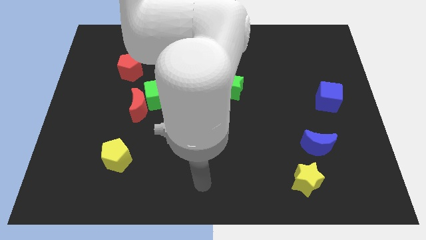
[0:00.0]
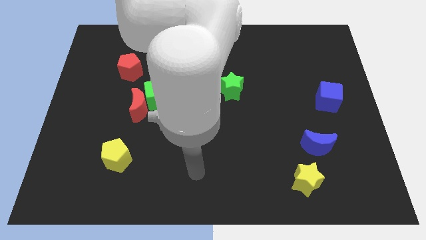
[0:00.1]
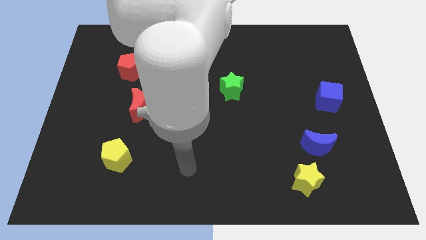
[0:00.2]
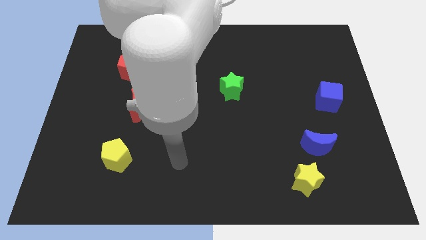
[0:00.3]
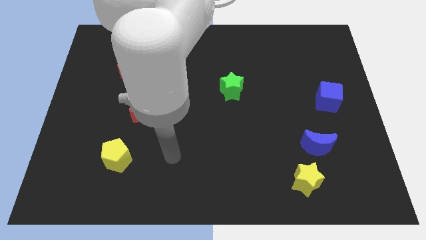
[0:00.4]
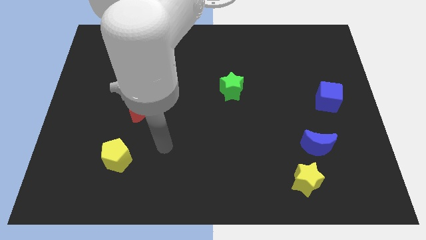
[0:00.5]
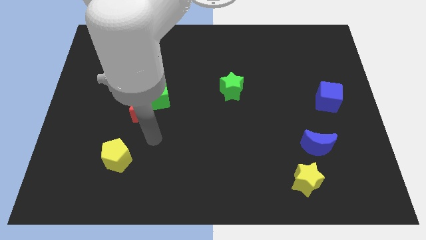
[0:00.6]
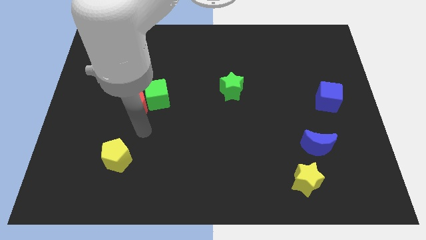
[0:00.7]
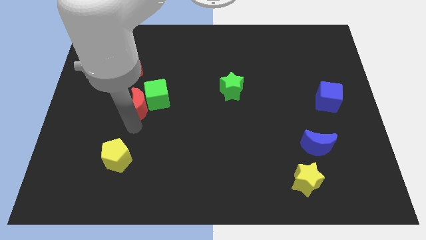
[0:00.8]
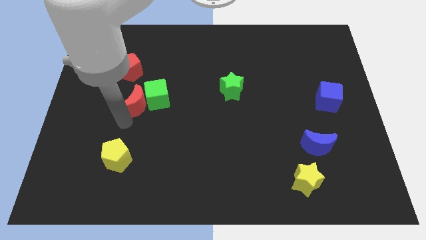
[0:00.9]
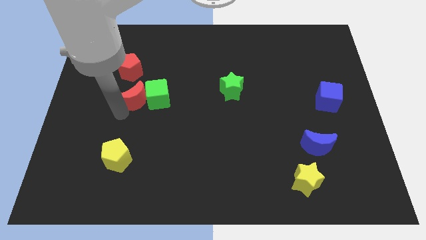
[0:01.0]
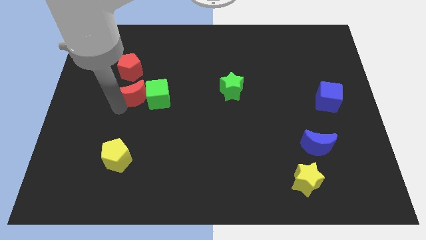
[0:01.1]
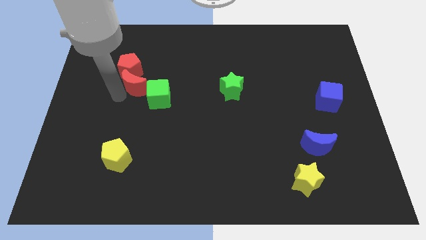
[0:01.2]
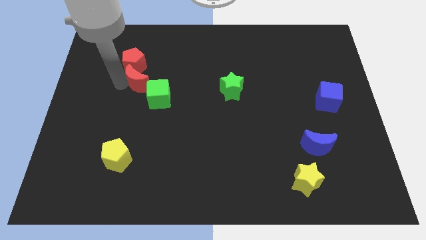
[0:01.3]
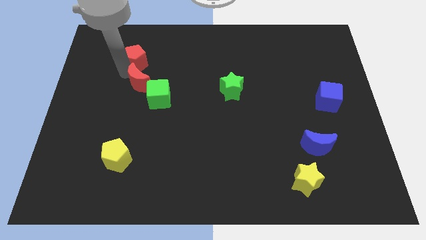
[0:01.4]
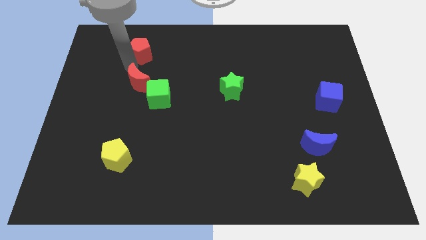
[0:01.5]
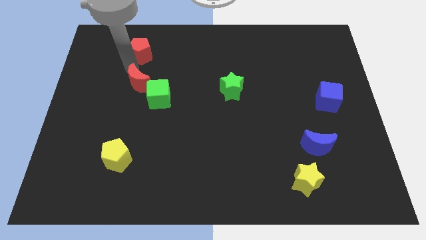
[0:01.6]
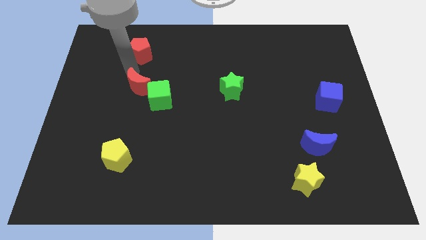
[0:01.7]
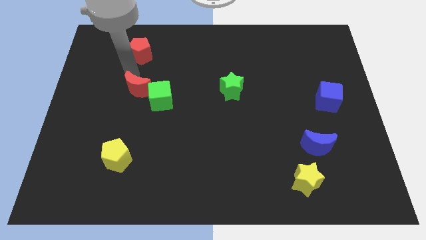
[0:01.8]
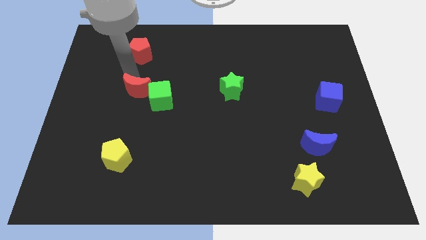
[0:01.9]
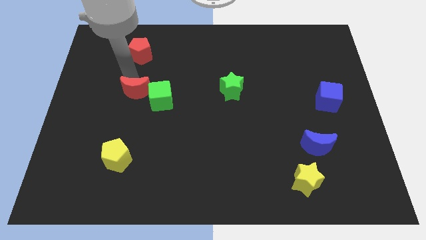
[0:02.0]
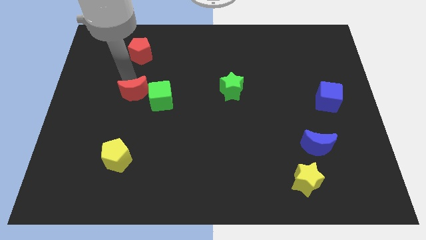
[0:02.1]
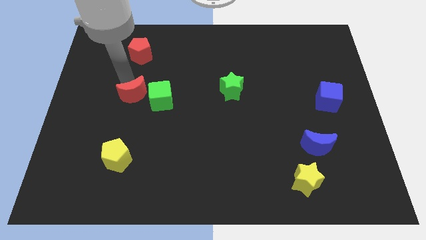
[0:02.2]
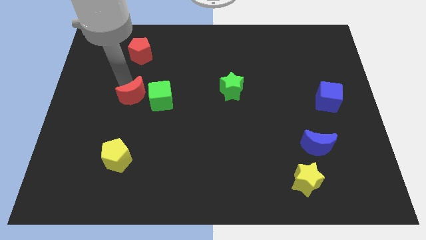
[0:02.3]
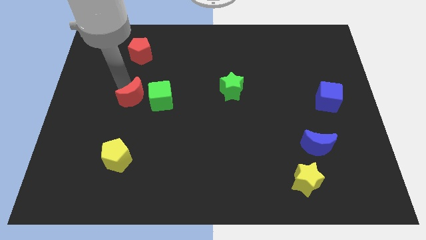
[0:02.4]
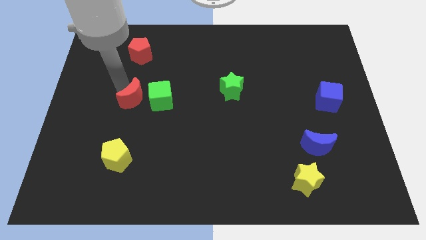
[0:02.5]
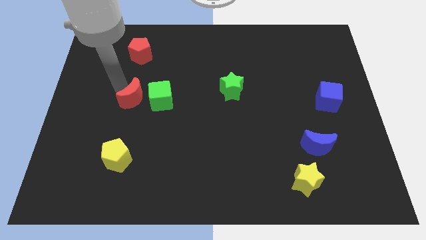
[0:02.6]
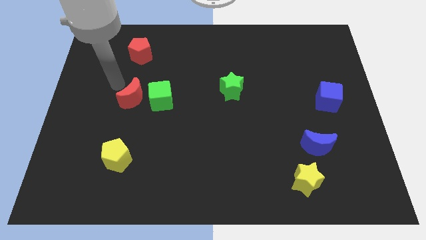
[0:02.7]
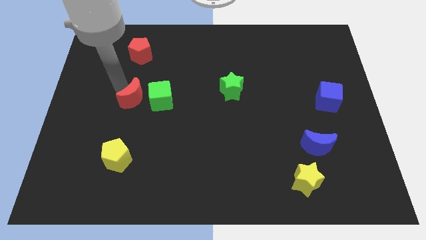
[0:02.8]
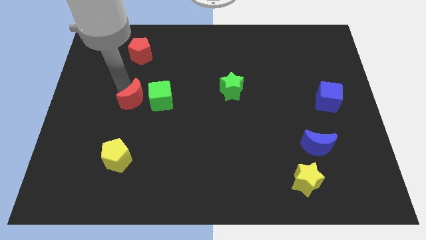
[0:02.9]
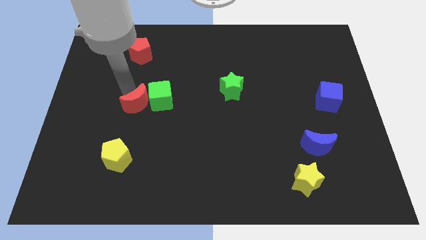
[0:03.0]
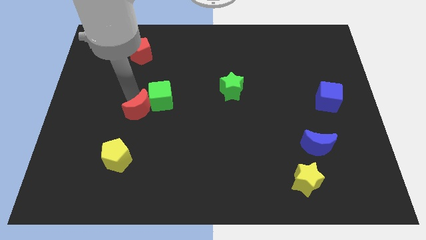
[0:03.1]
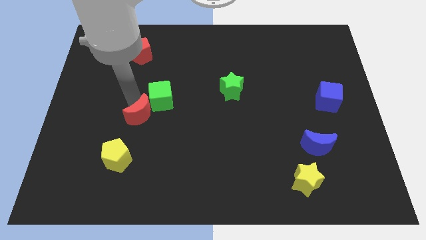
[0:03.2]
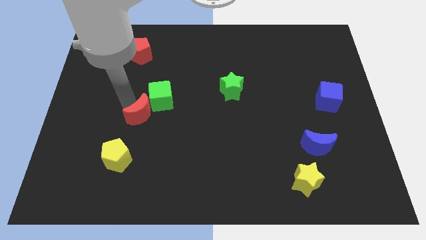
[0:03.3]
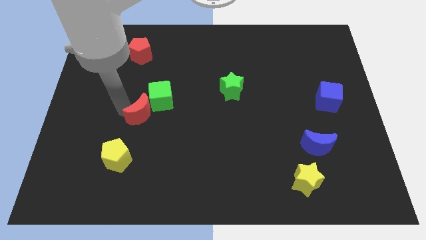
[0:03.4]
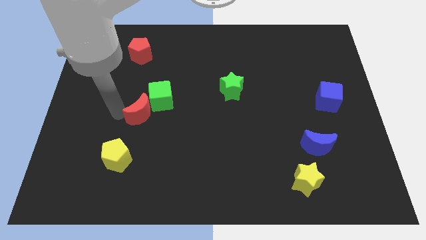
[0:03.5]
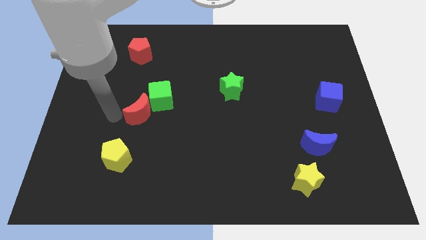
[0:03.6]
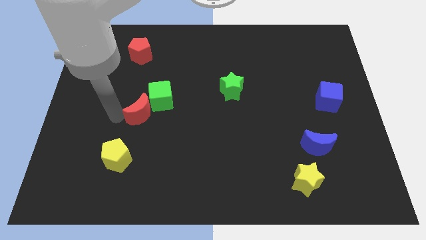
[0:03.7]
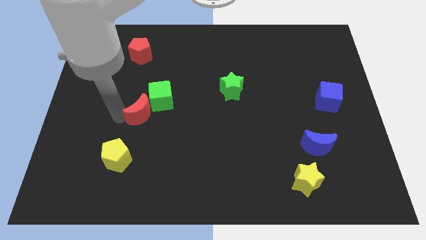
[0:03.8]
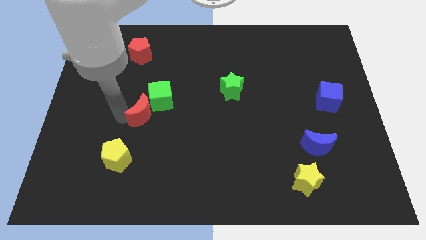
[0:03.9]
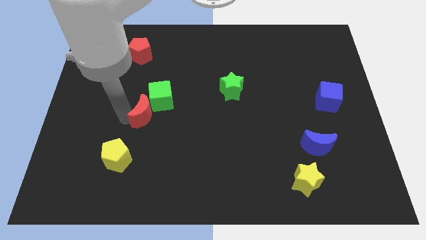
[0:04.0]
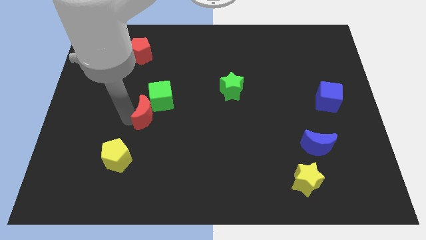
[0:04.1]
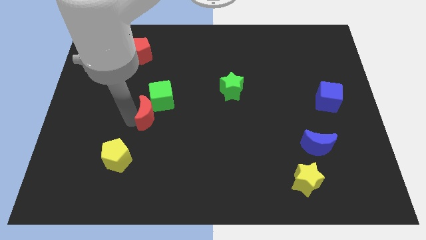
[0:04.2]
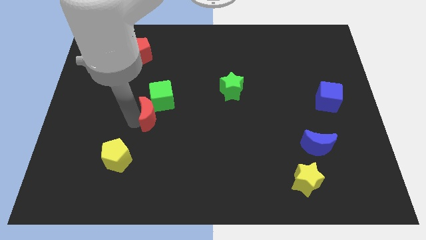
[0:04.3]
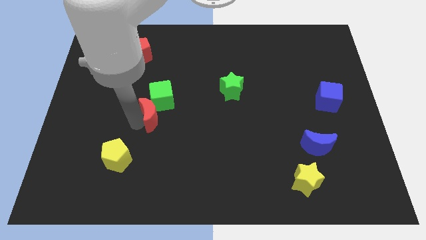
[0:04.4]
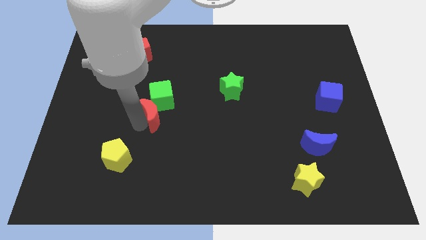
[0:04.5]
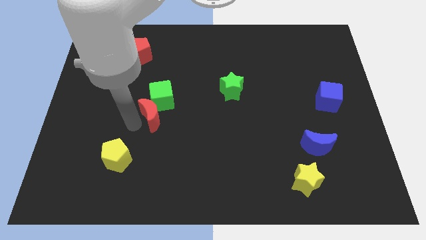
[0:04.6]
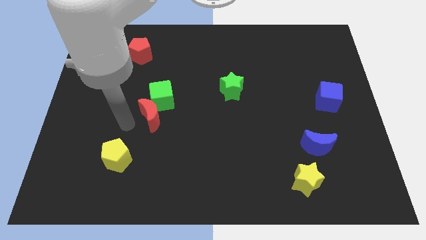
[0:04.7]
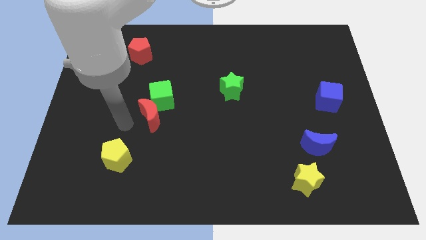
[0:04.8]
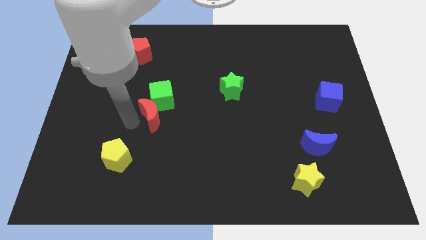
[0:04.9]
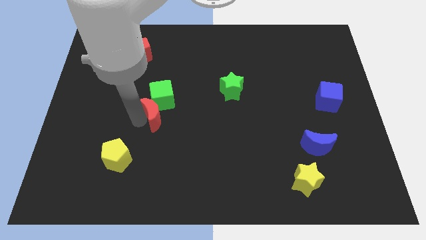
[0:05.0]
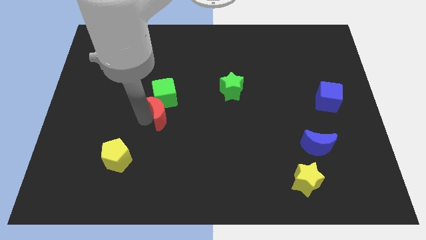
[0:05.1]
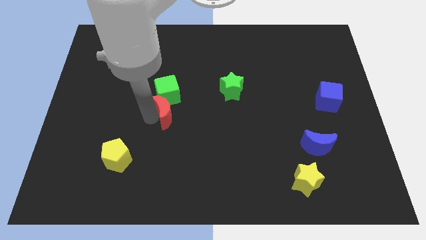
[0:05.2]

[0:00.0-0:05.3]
move the red moon to the middle

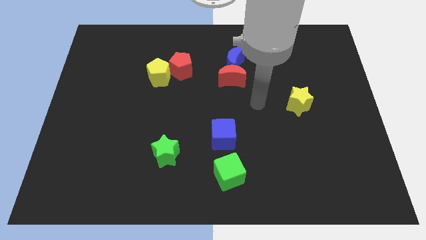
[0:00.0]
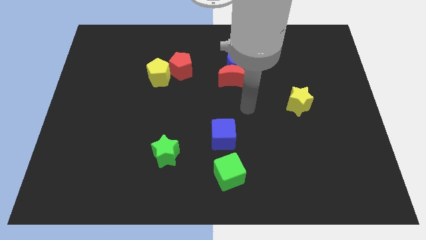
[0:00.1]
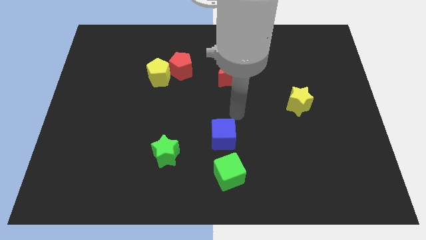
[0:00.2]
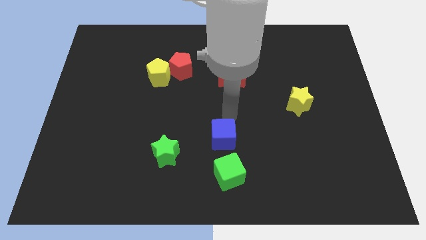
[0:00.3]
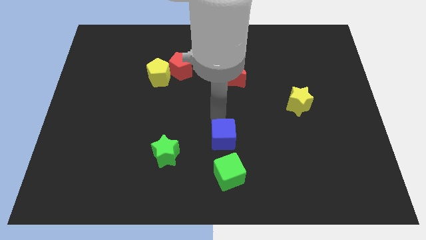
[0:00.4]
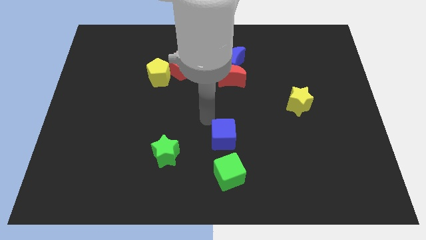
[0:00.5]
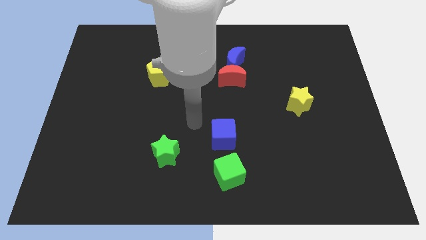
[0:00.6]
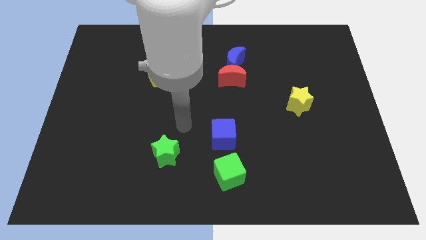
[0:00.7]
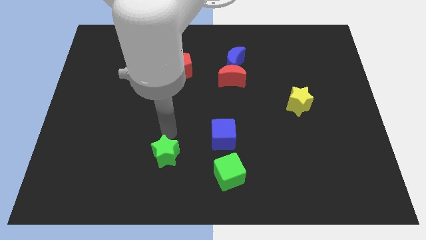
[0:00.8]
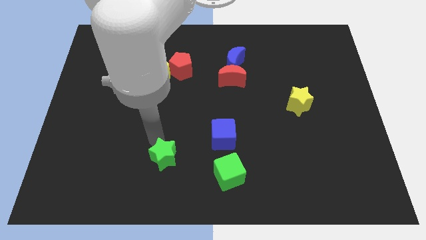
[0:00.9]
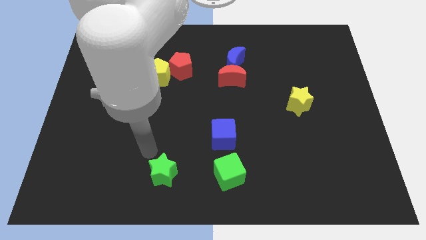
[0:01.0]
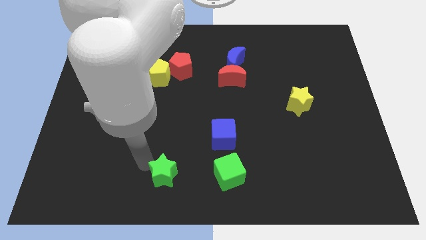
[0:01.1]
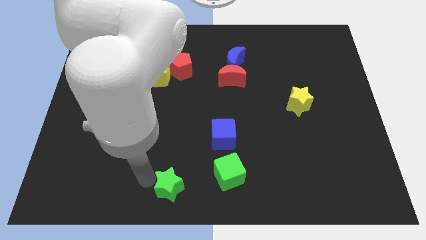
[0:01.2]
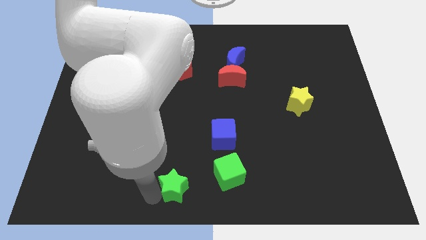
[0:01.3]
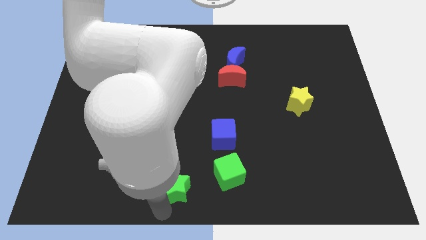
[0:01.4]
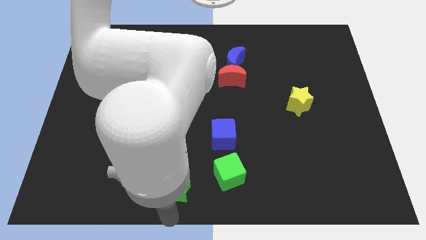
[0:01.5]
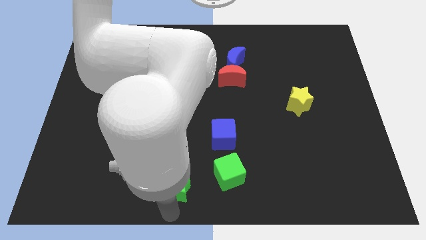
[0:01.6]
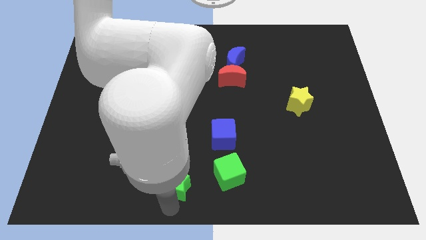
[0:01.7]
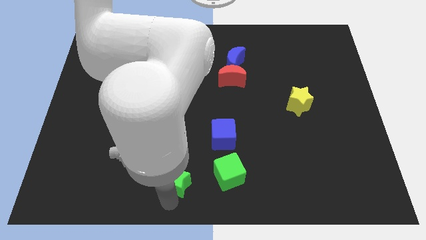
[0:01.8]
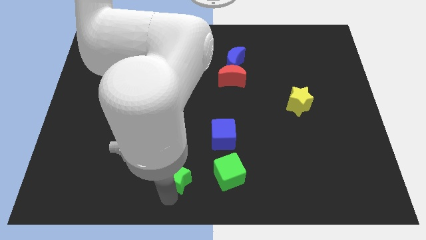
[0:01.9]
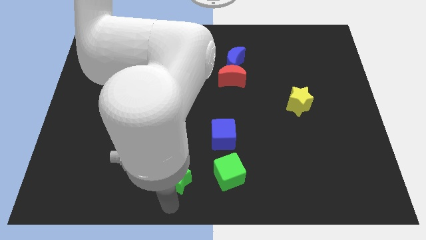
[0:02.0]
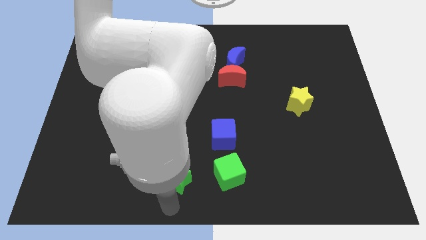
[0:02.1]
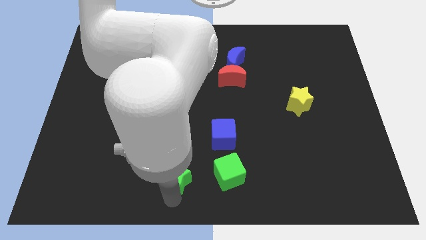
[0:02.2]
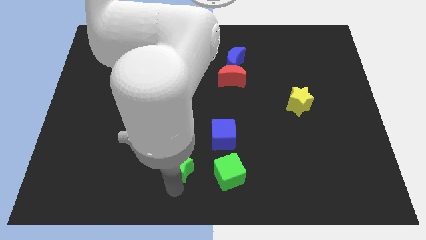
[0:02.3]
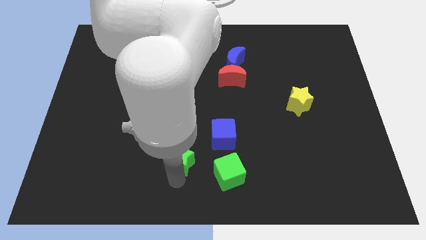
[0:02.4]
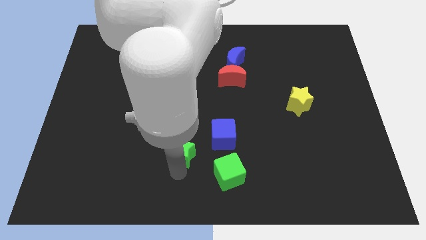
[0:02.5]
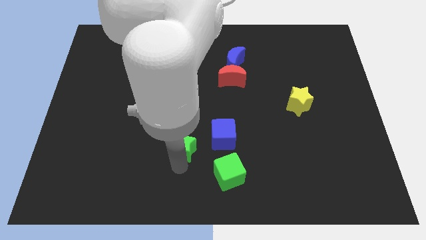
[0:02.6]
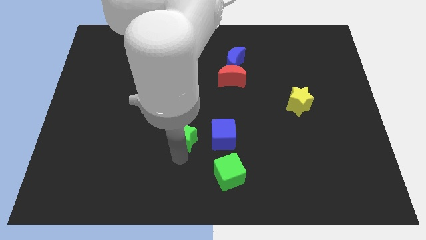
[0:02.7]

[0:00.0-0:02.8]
put the green star to the middle of the board
